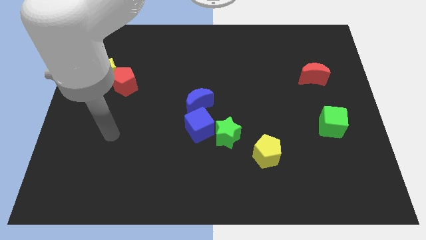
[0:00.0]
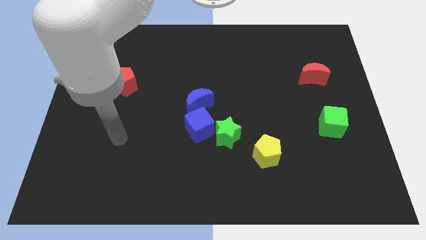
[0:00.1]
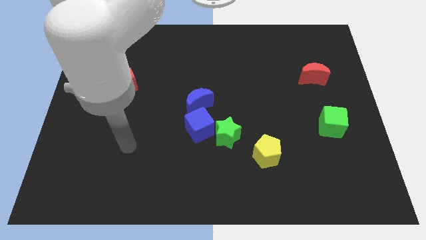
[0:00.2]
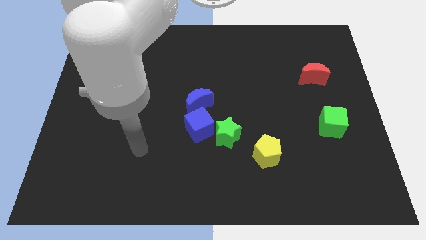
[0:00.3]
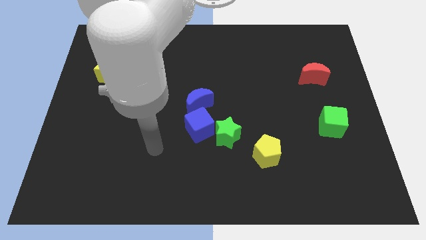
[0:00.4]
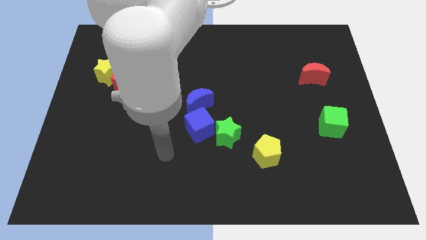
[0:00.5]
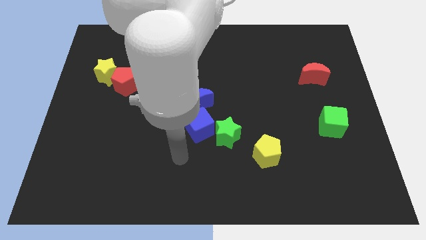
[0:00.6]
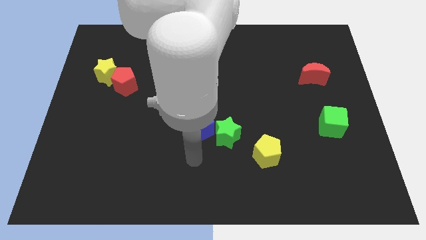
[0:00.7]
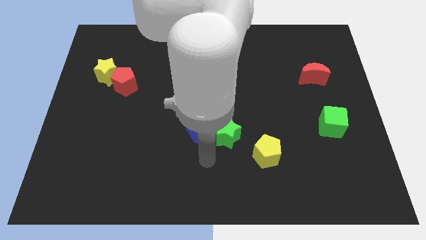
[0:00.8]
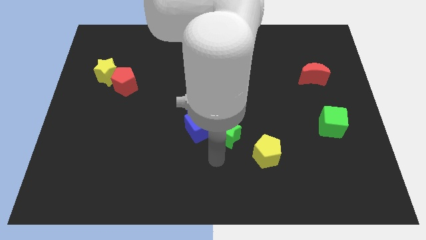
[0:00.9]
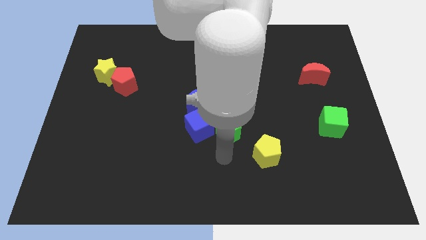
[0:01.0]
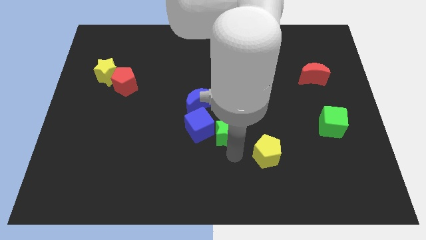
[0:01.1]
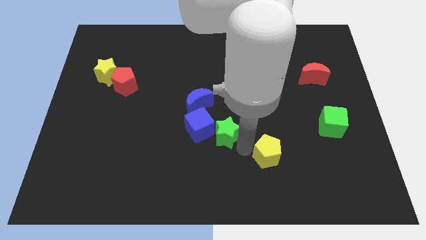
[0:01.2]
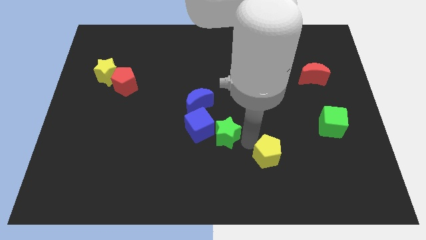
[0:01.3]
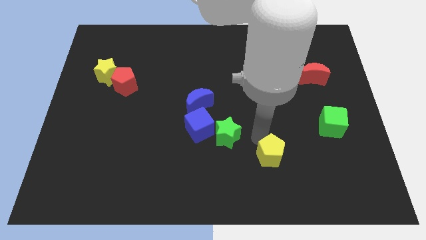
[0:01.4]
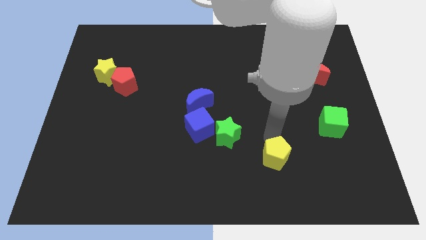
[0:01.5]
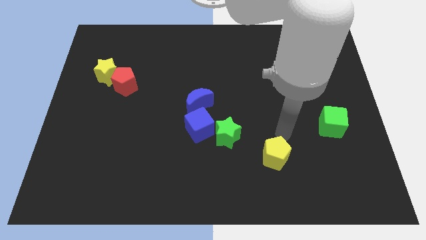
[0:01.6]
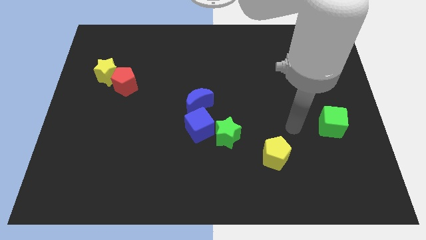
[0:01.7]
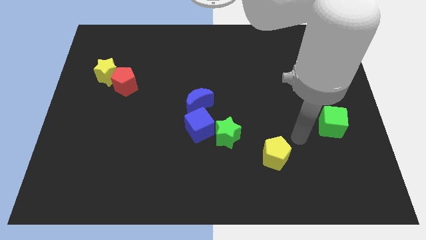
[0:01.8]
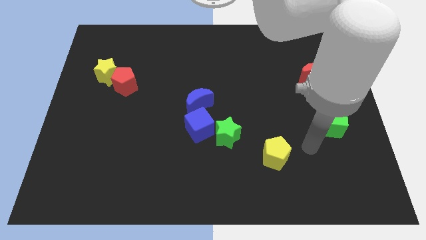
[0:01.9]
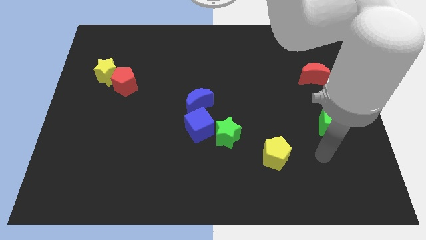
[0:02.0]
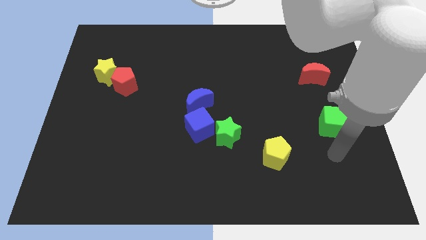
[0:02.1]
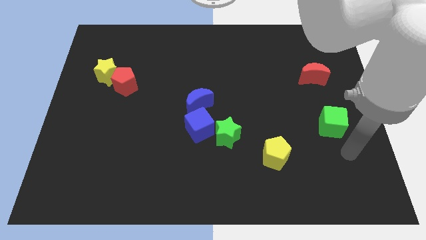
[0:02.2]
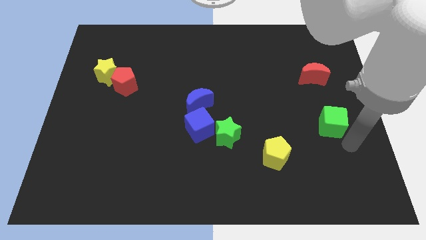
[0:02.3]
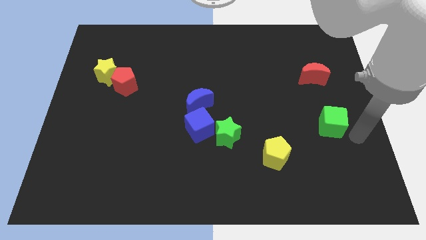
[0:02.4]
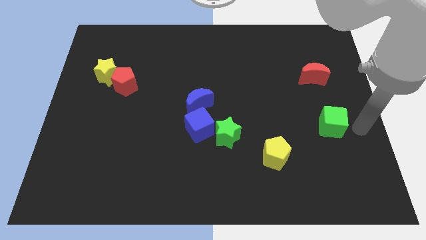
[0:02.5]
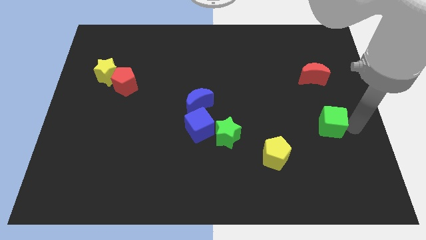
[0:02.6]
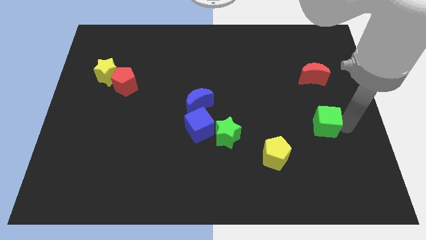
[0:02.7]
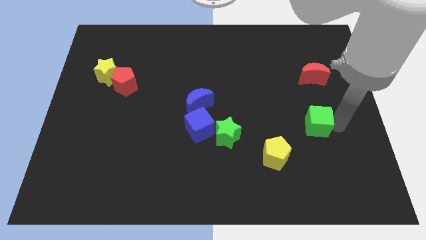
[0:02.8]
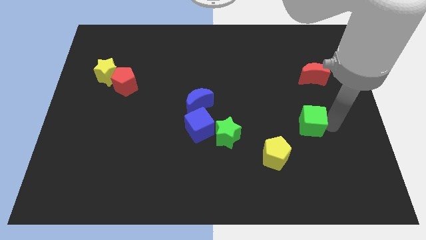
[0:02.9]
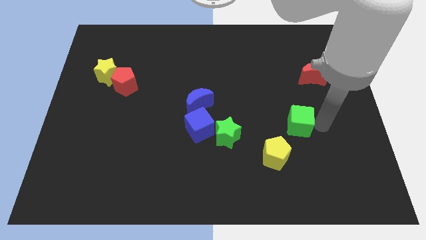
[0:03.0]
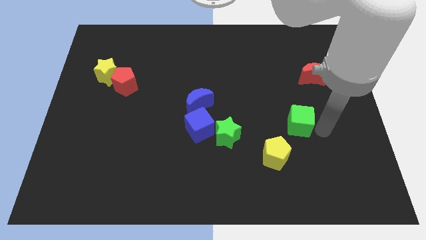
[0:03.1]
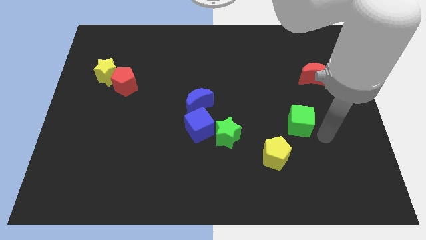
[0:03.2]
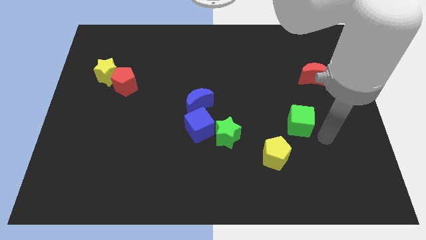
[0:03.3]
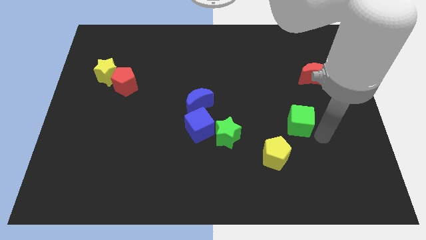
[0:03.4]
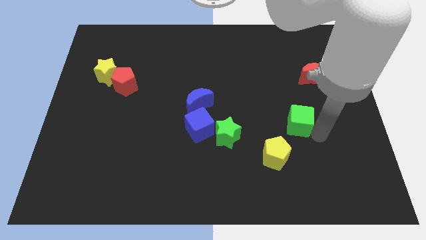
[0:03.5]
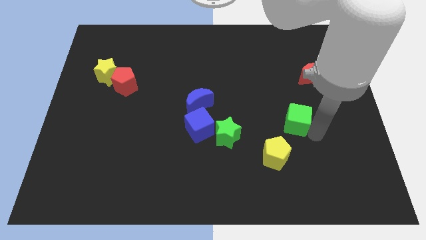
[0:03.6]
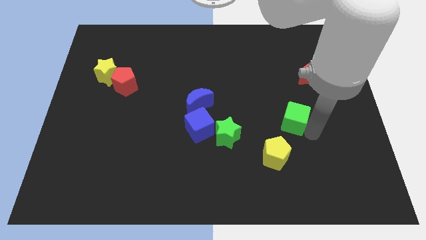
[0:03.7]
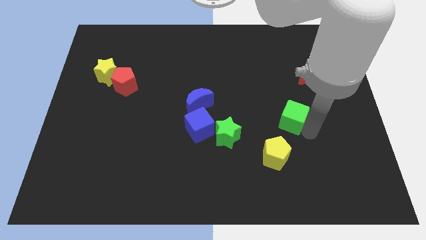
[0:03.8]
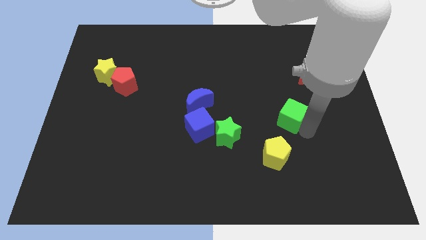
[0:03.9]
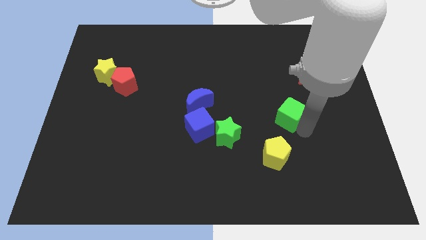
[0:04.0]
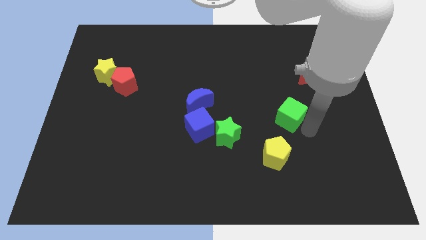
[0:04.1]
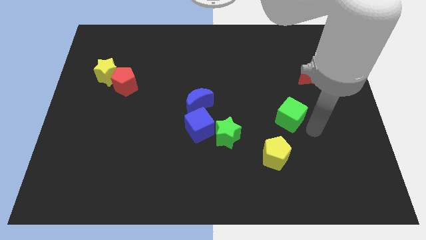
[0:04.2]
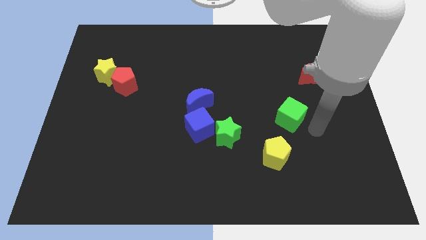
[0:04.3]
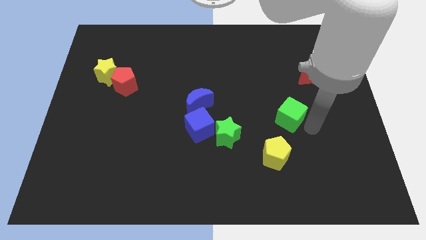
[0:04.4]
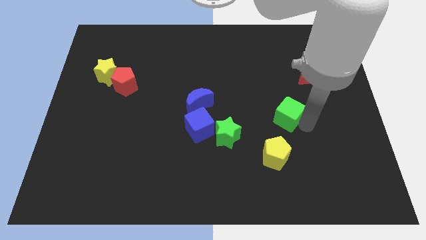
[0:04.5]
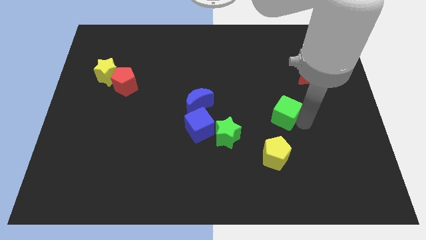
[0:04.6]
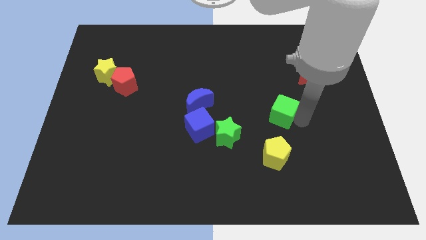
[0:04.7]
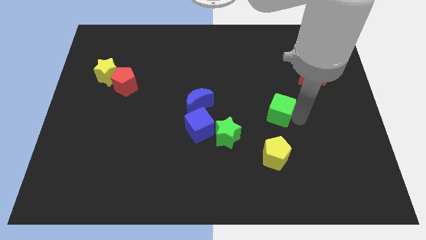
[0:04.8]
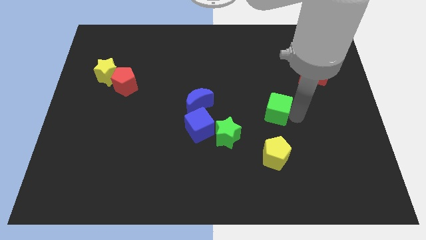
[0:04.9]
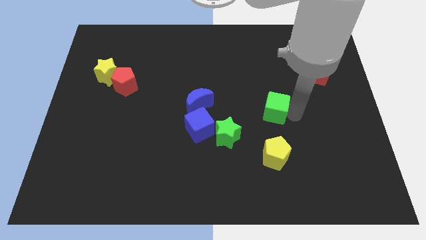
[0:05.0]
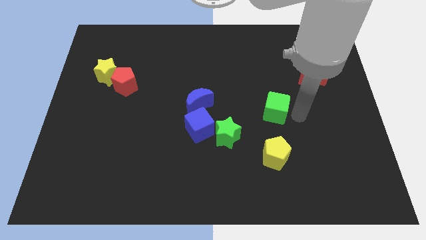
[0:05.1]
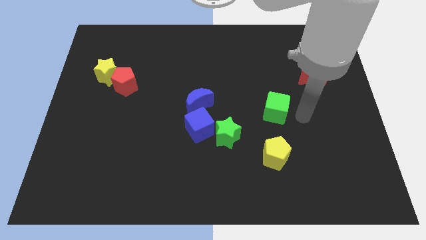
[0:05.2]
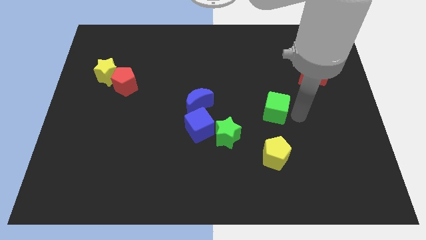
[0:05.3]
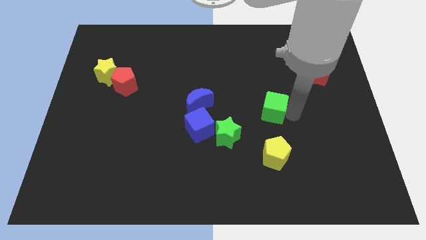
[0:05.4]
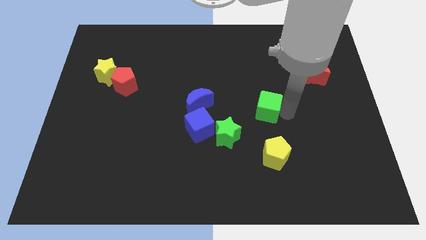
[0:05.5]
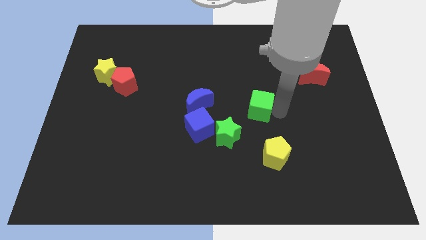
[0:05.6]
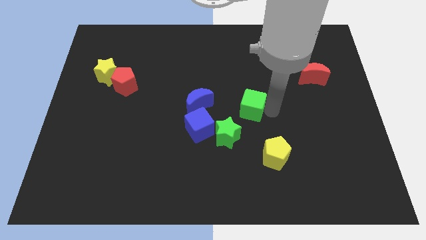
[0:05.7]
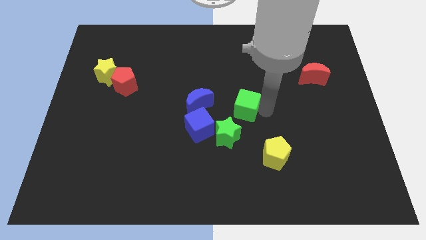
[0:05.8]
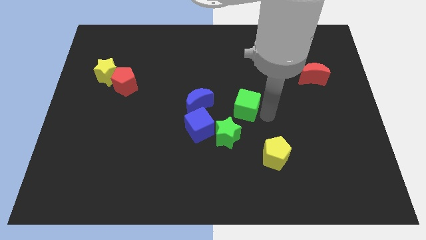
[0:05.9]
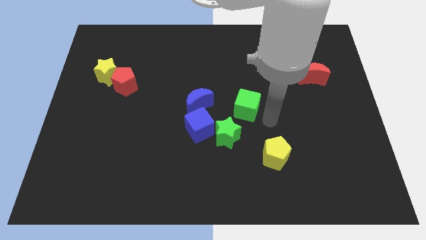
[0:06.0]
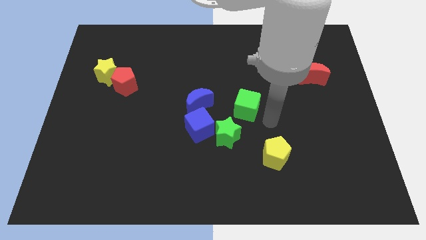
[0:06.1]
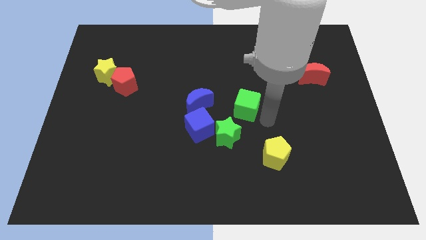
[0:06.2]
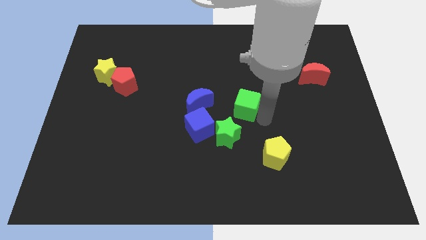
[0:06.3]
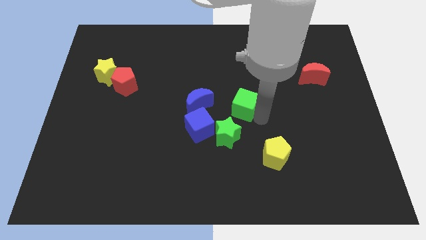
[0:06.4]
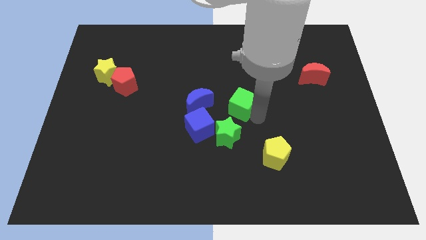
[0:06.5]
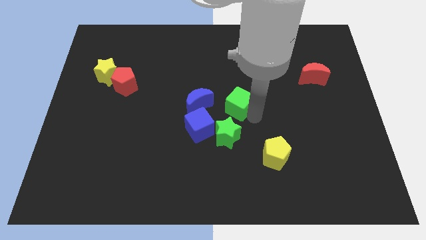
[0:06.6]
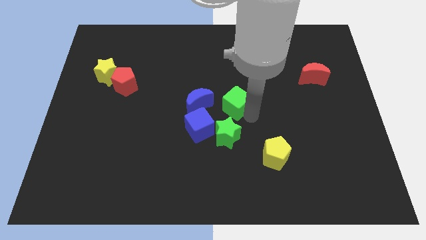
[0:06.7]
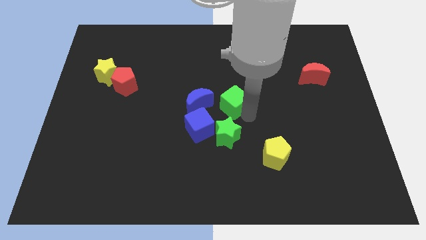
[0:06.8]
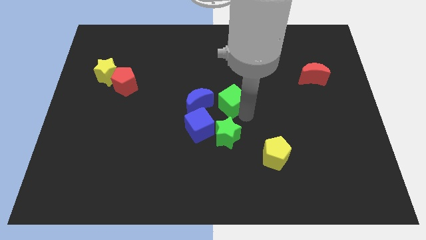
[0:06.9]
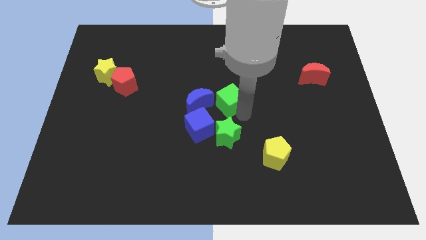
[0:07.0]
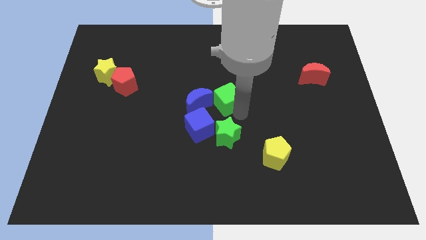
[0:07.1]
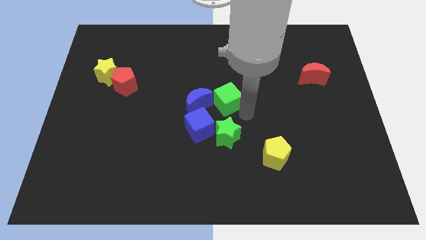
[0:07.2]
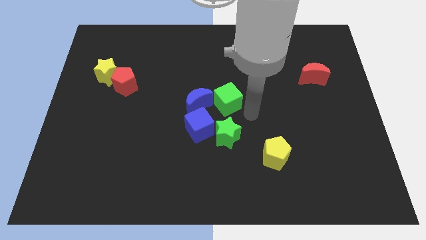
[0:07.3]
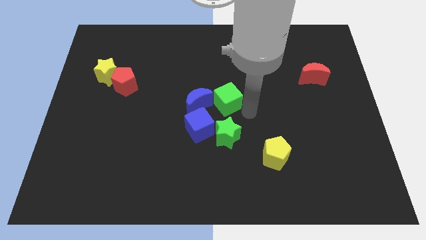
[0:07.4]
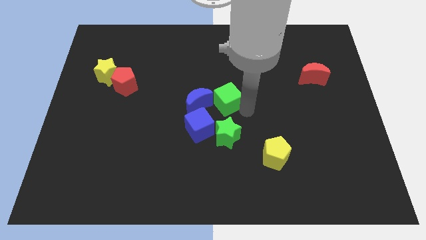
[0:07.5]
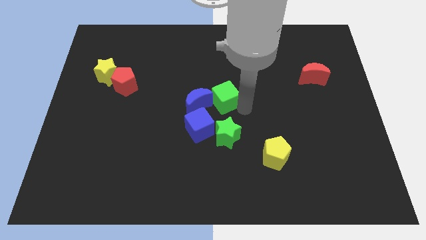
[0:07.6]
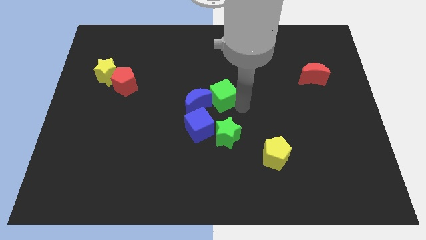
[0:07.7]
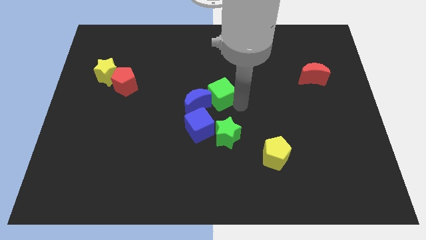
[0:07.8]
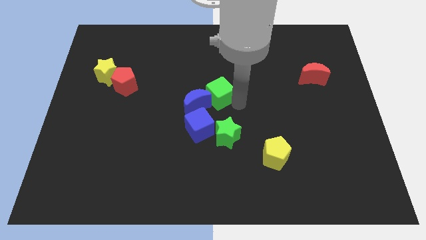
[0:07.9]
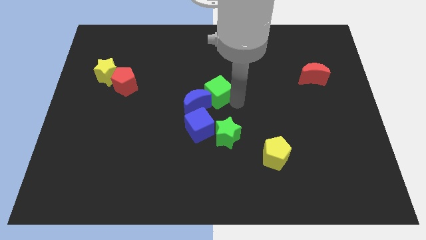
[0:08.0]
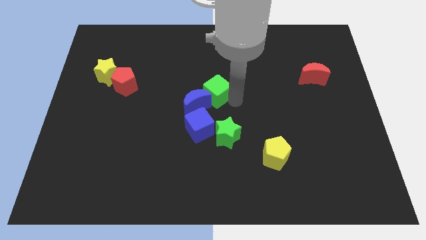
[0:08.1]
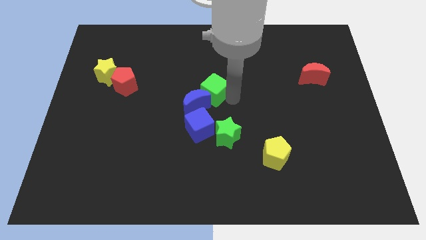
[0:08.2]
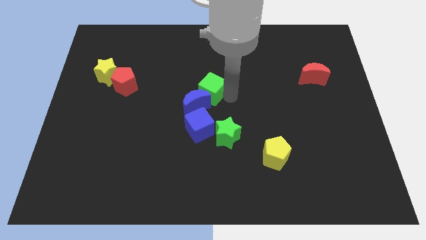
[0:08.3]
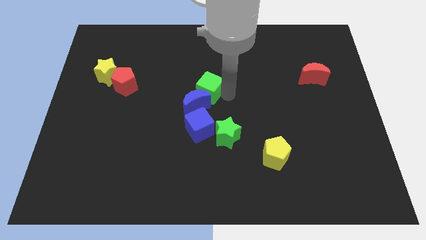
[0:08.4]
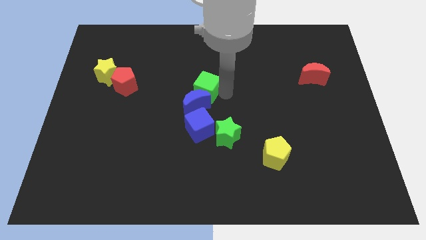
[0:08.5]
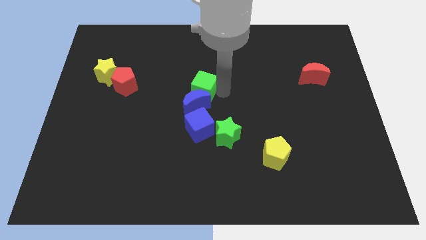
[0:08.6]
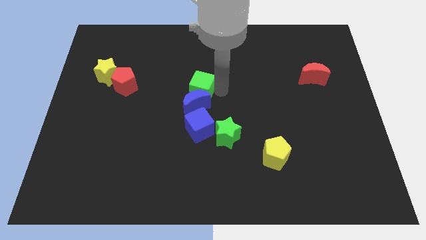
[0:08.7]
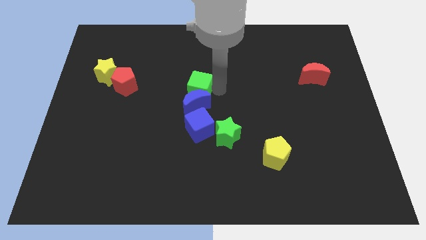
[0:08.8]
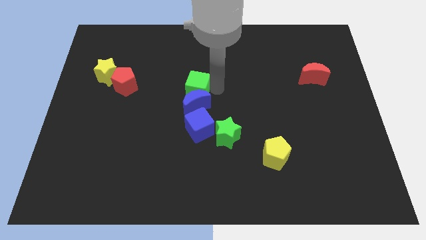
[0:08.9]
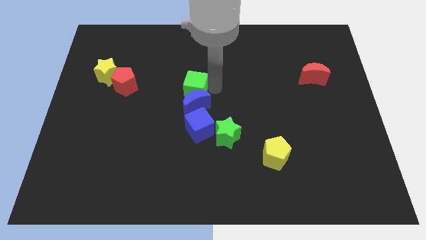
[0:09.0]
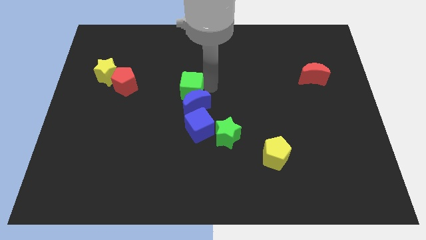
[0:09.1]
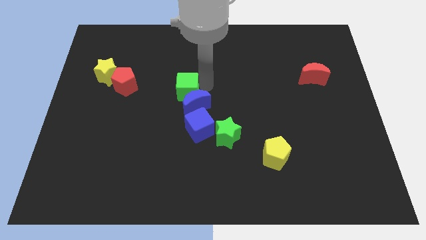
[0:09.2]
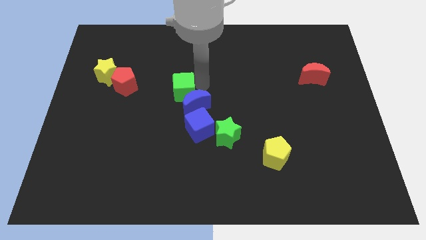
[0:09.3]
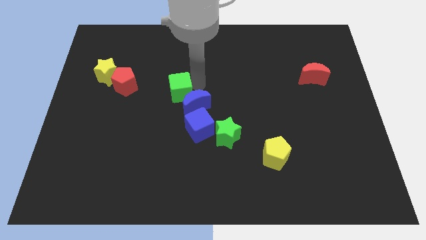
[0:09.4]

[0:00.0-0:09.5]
slide the green cube just left of the blue moon
